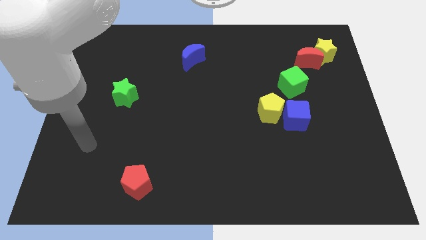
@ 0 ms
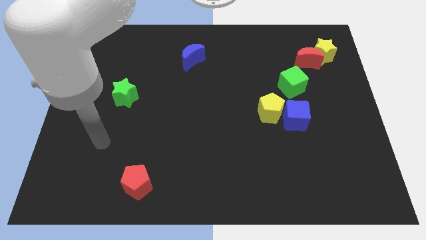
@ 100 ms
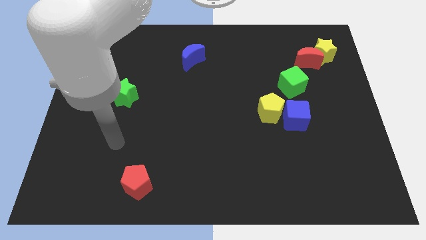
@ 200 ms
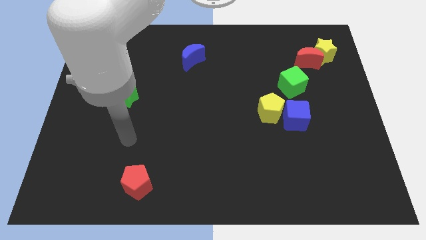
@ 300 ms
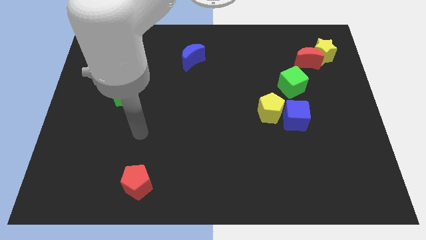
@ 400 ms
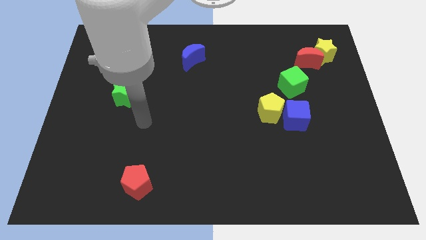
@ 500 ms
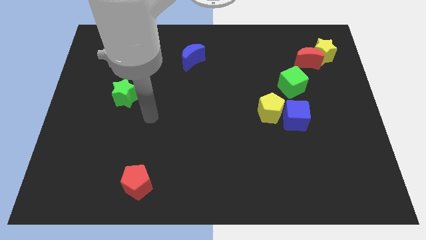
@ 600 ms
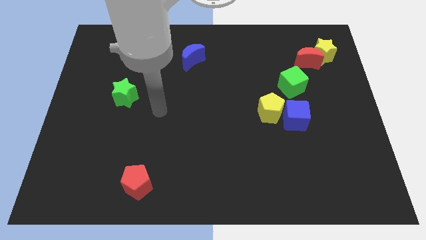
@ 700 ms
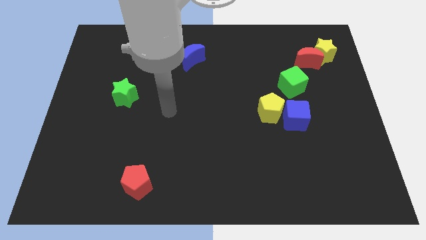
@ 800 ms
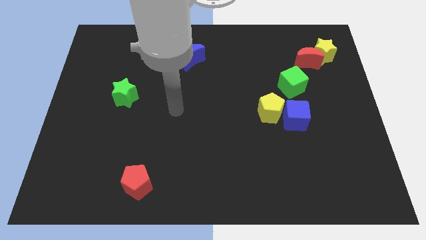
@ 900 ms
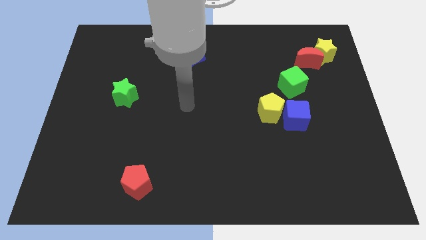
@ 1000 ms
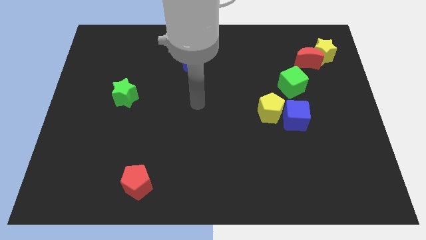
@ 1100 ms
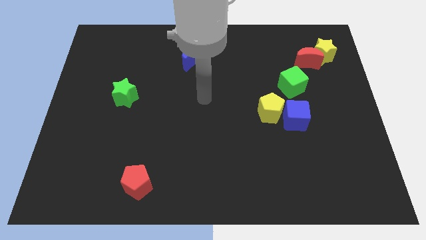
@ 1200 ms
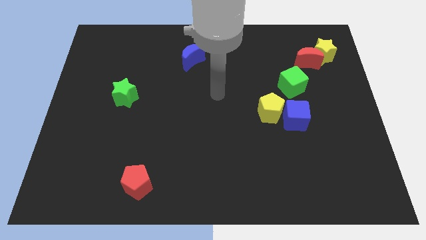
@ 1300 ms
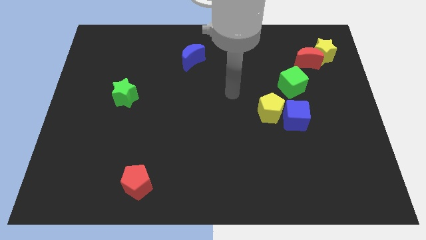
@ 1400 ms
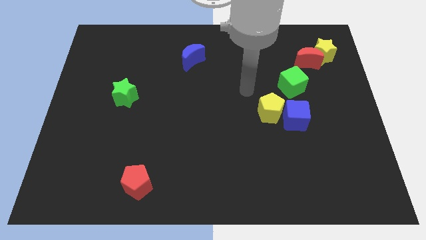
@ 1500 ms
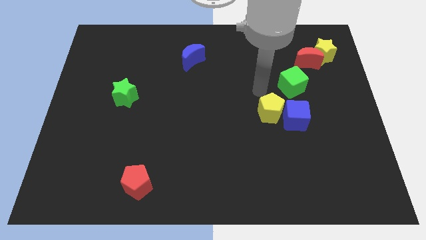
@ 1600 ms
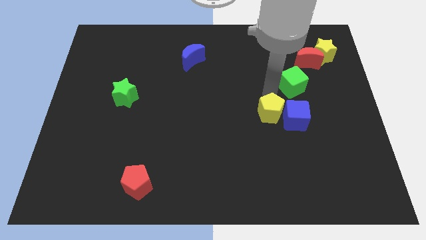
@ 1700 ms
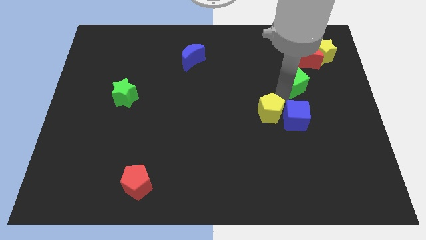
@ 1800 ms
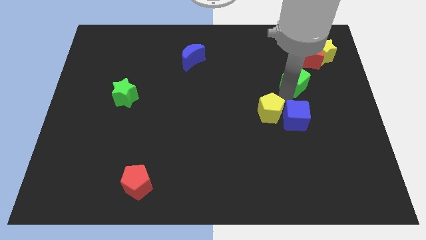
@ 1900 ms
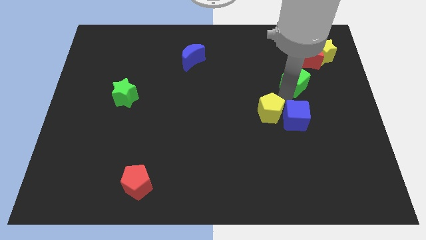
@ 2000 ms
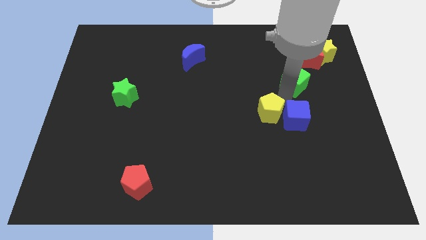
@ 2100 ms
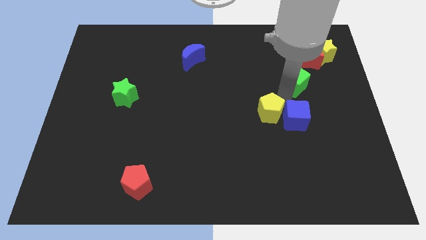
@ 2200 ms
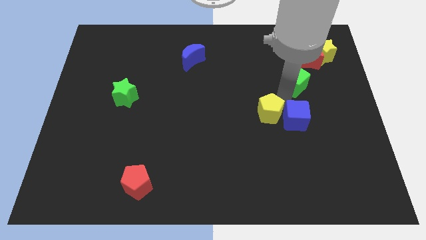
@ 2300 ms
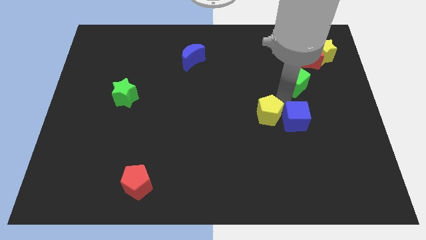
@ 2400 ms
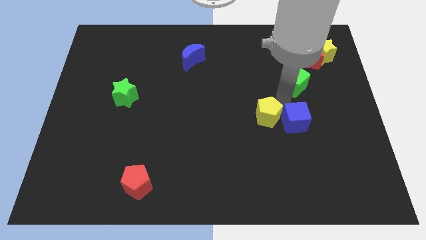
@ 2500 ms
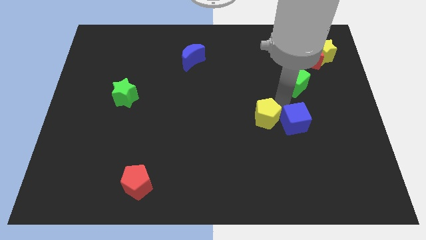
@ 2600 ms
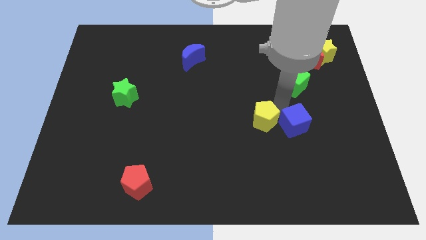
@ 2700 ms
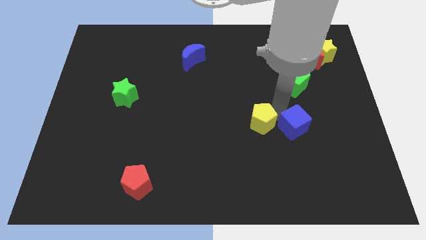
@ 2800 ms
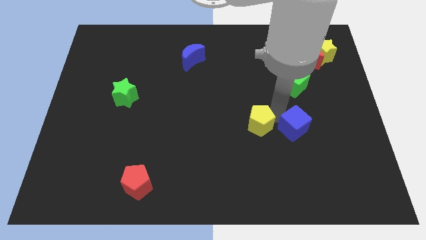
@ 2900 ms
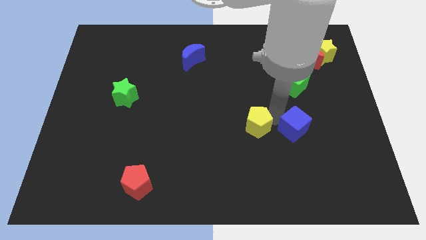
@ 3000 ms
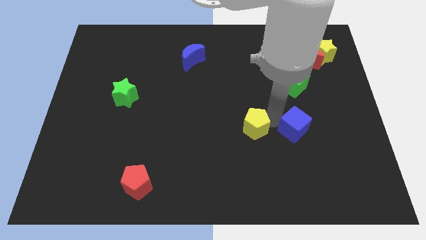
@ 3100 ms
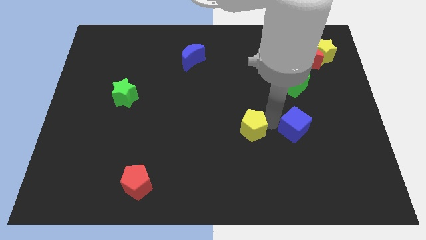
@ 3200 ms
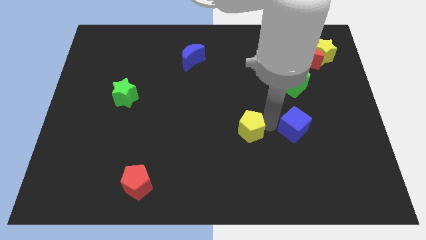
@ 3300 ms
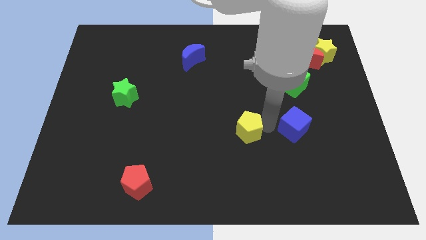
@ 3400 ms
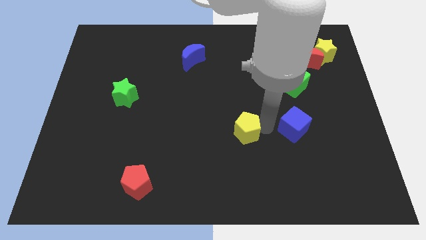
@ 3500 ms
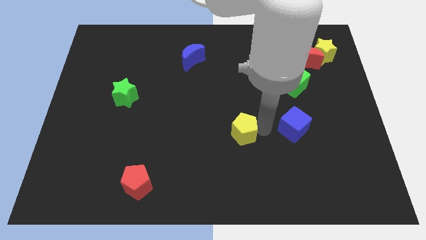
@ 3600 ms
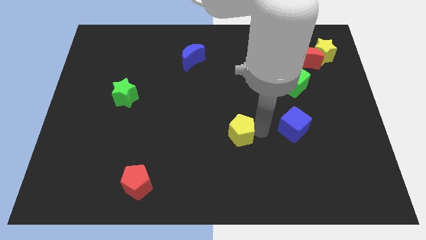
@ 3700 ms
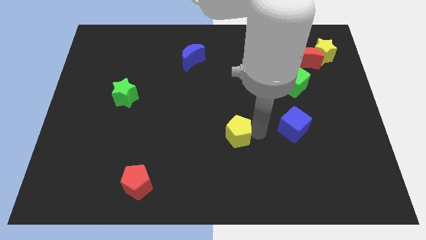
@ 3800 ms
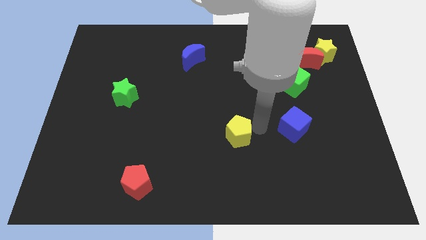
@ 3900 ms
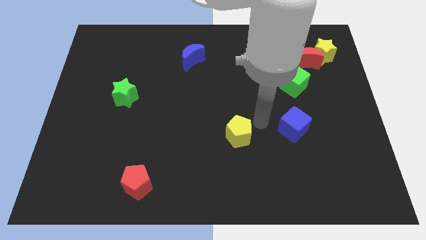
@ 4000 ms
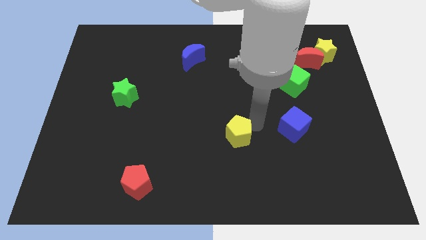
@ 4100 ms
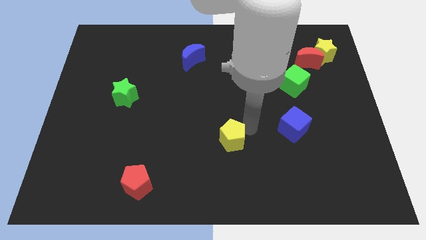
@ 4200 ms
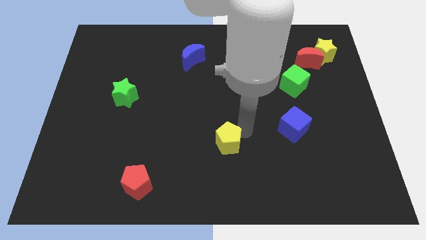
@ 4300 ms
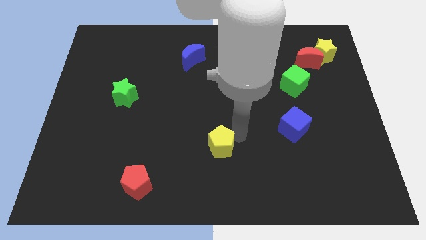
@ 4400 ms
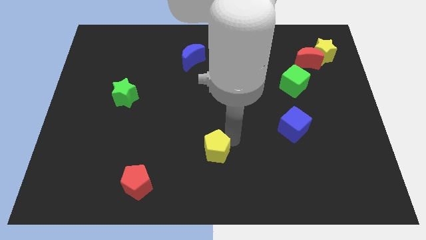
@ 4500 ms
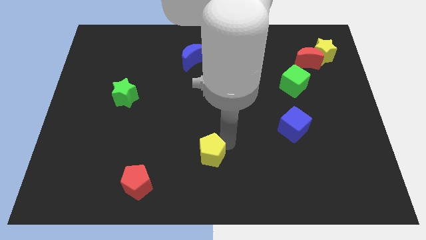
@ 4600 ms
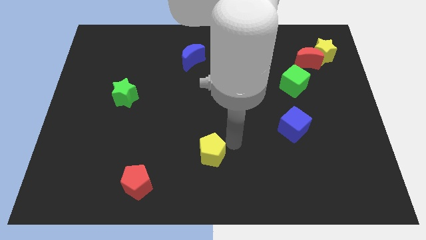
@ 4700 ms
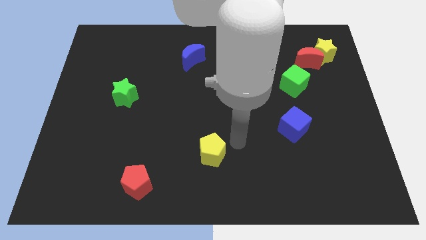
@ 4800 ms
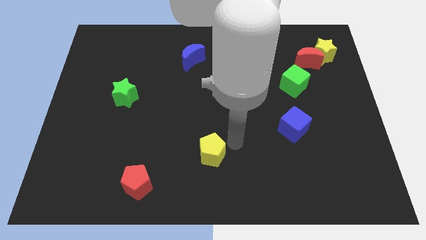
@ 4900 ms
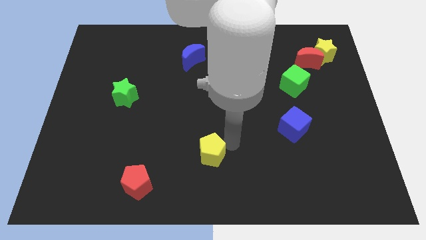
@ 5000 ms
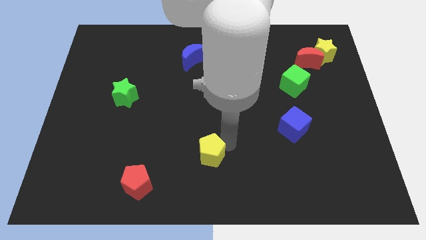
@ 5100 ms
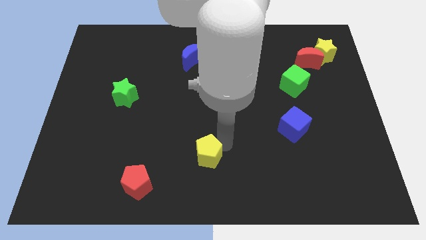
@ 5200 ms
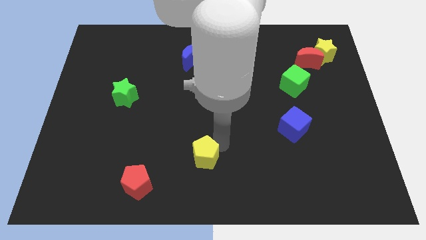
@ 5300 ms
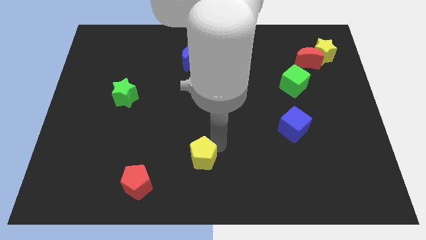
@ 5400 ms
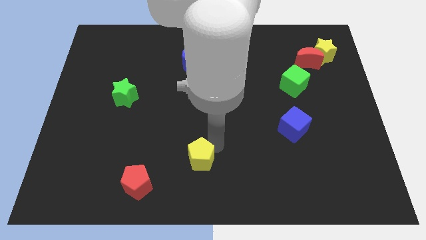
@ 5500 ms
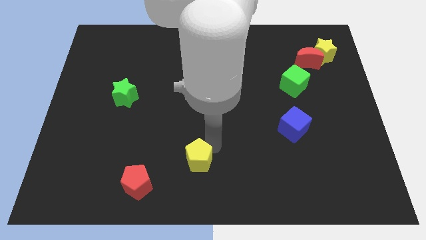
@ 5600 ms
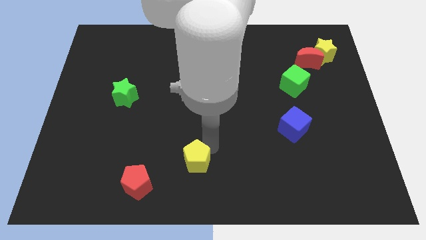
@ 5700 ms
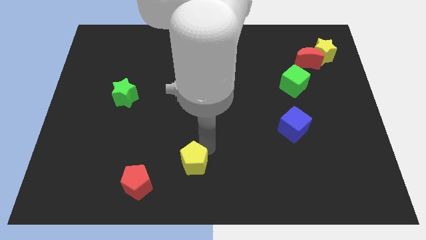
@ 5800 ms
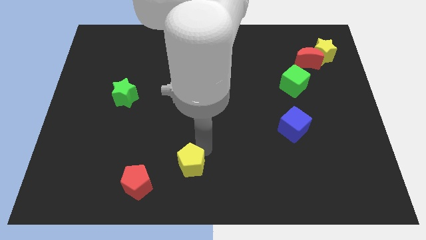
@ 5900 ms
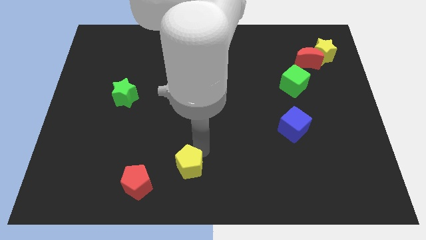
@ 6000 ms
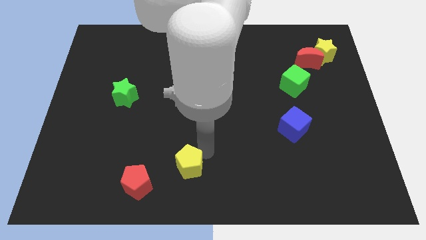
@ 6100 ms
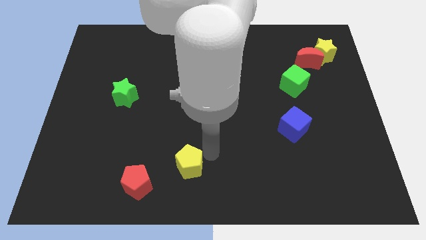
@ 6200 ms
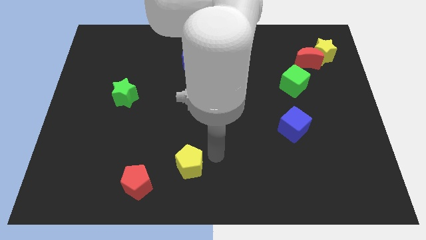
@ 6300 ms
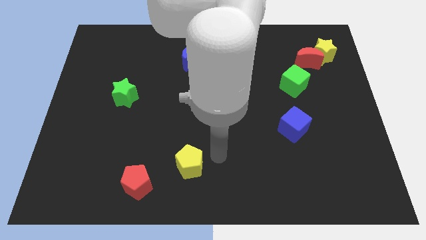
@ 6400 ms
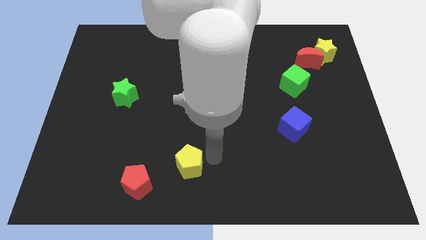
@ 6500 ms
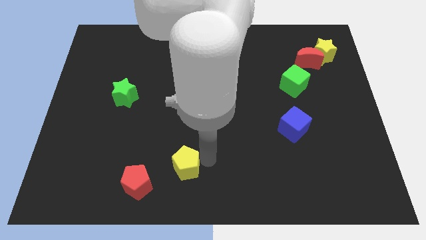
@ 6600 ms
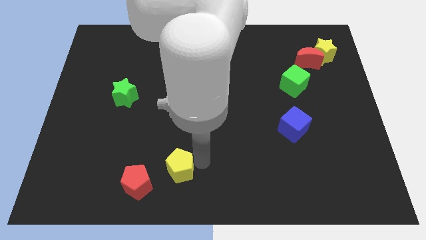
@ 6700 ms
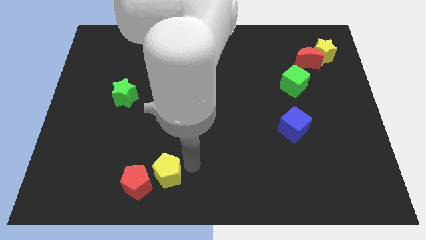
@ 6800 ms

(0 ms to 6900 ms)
put the yellow pentagon towards the red pentagon

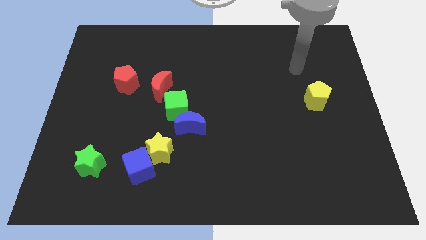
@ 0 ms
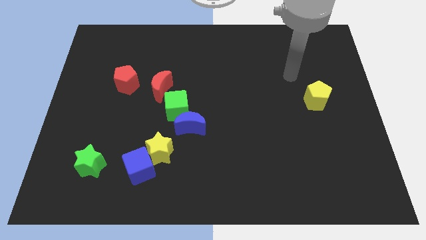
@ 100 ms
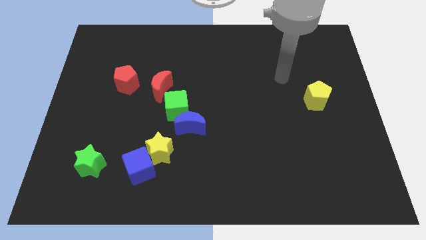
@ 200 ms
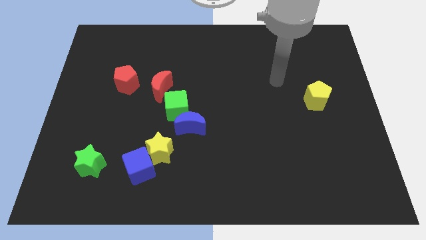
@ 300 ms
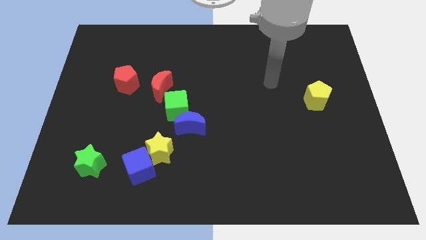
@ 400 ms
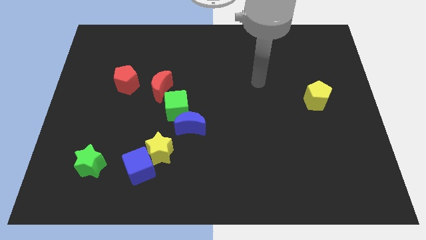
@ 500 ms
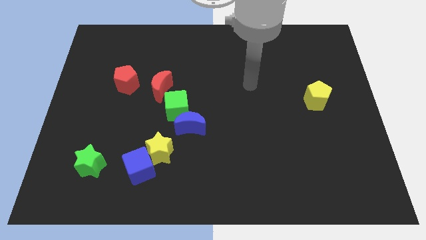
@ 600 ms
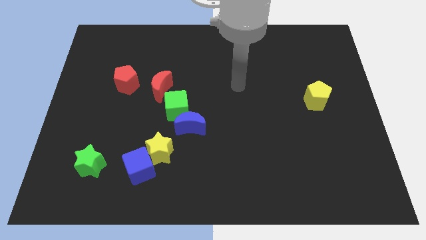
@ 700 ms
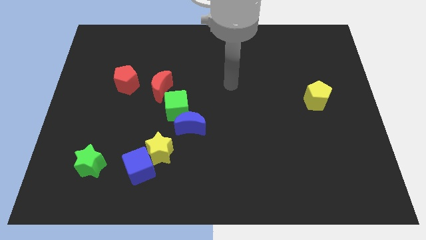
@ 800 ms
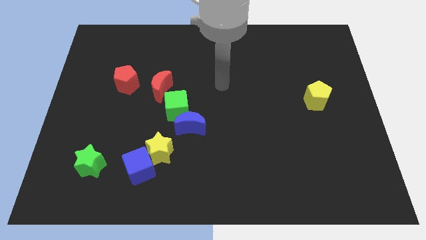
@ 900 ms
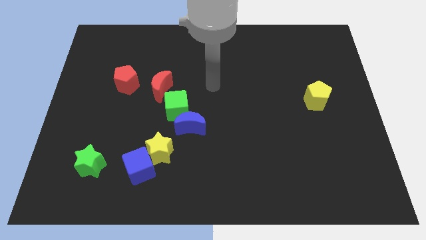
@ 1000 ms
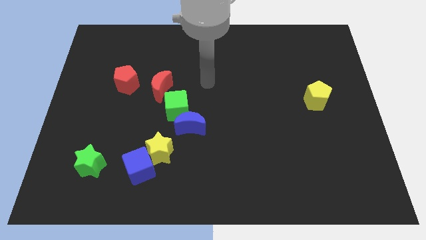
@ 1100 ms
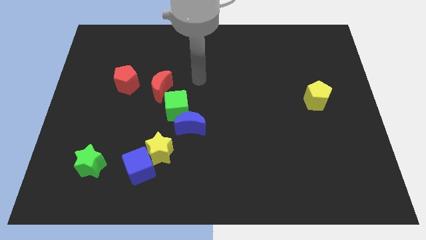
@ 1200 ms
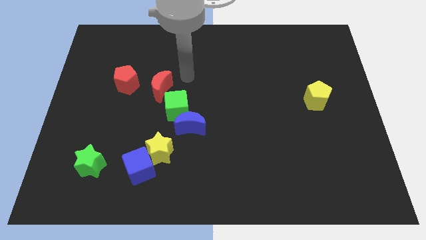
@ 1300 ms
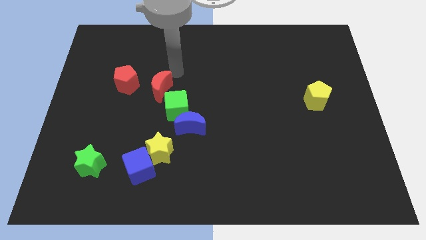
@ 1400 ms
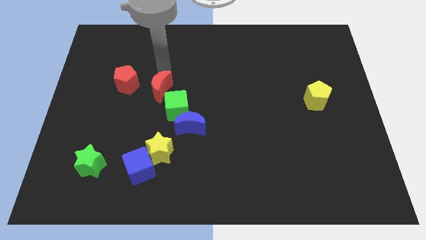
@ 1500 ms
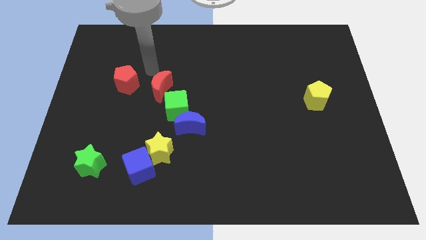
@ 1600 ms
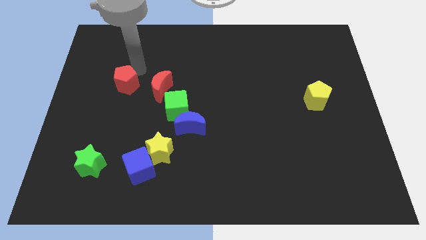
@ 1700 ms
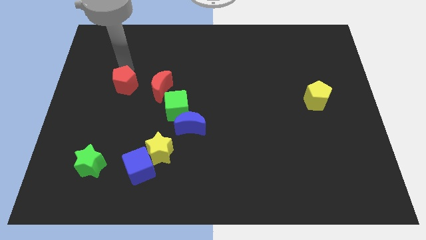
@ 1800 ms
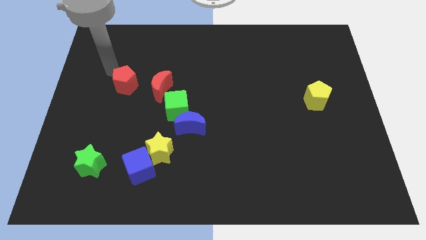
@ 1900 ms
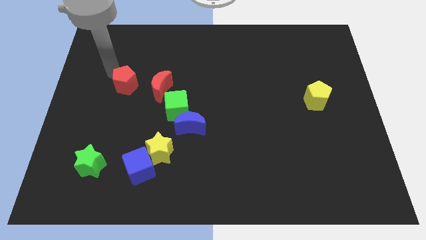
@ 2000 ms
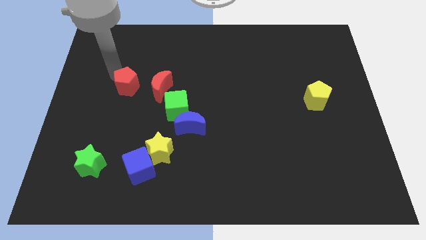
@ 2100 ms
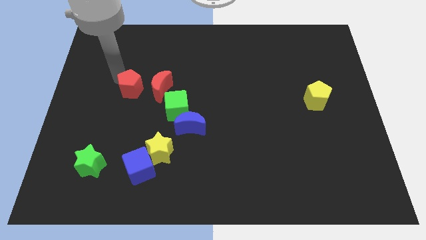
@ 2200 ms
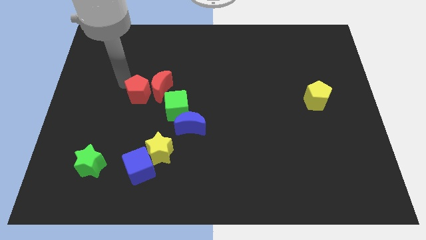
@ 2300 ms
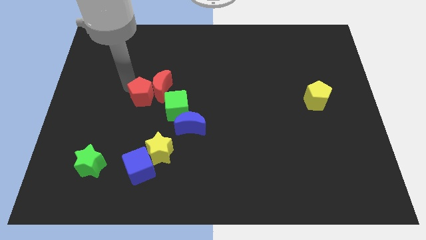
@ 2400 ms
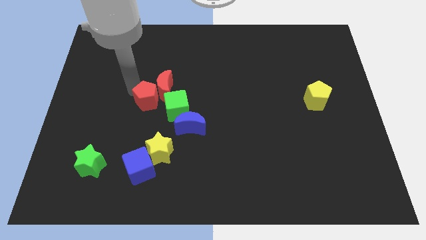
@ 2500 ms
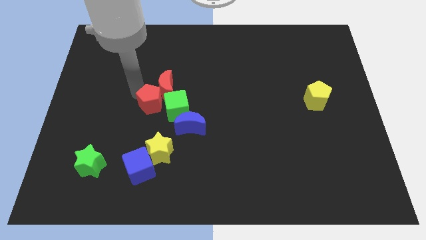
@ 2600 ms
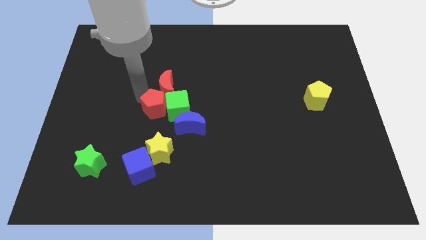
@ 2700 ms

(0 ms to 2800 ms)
push the red pentagon next to the green cube
